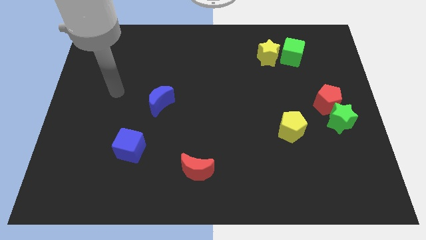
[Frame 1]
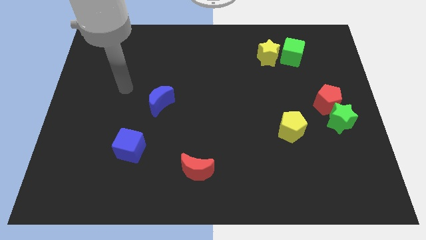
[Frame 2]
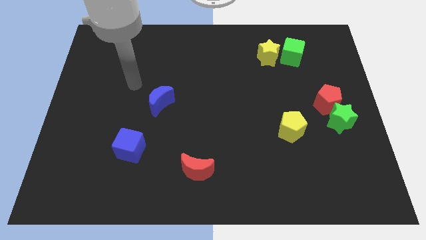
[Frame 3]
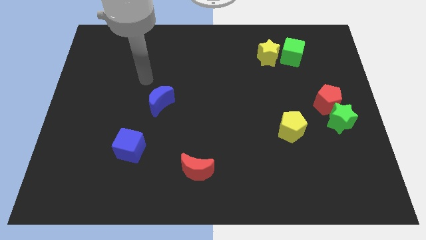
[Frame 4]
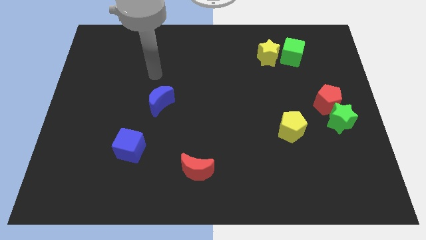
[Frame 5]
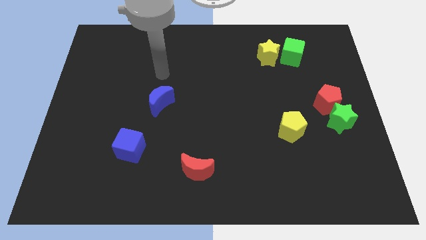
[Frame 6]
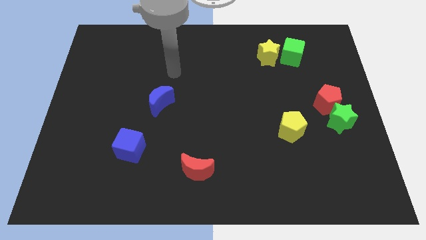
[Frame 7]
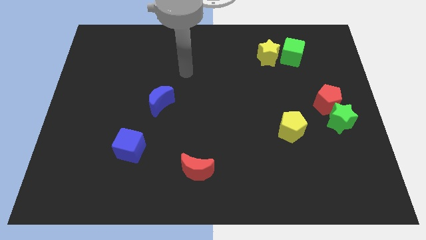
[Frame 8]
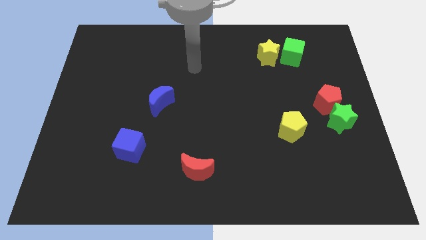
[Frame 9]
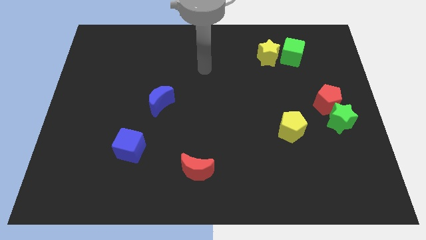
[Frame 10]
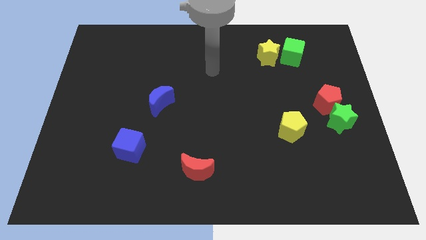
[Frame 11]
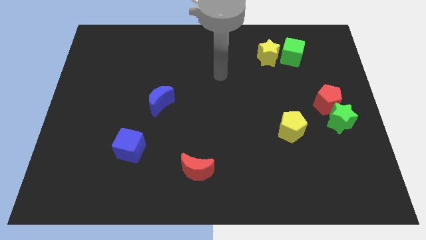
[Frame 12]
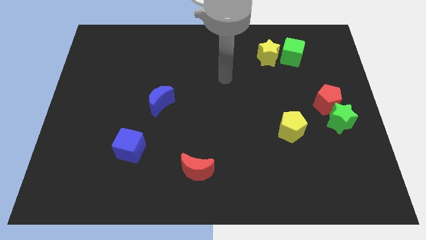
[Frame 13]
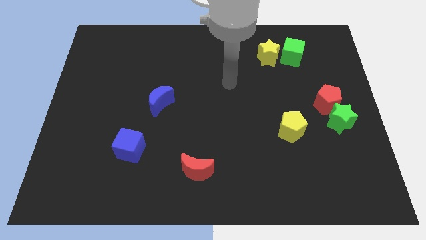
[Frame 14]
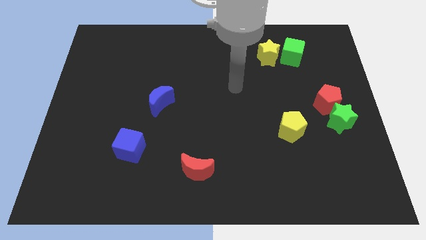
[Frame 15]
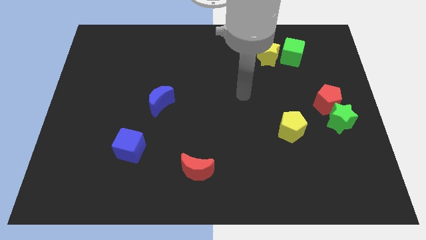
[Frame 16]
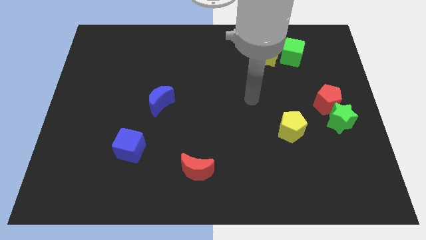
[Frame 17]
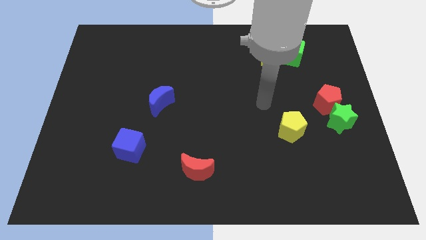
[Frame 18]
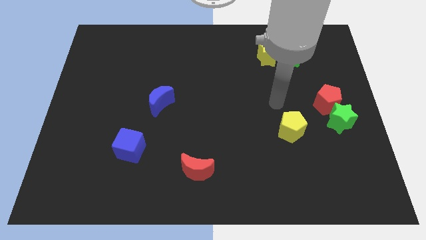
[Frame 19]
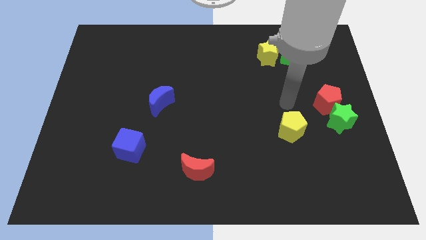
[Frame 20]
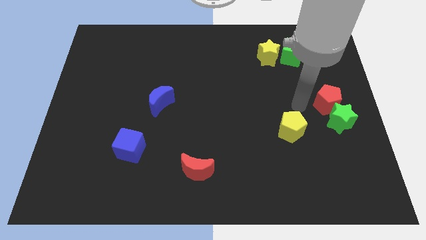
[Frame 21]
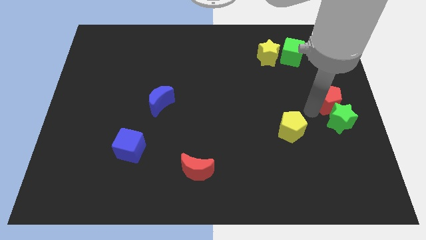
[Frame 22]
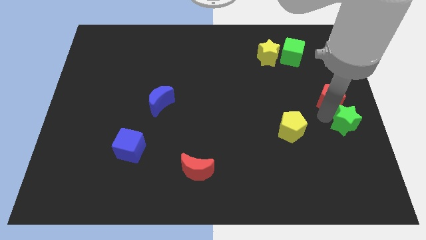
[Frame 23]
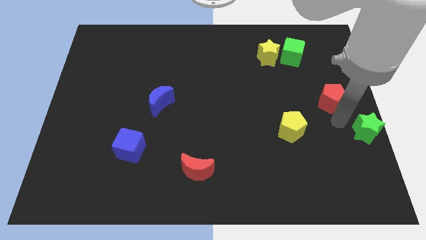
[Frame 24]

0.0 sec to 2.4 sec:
pull the red pentagon apart from the green star

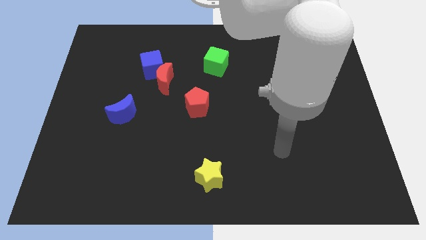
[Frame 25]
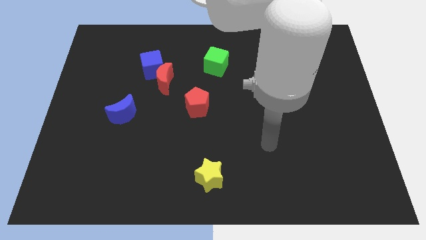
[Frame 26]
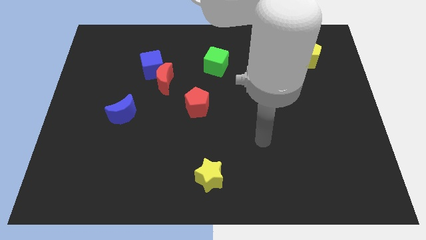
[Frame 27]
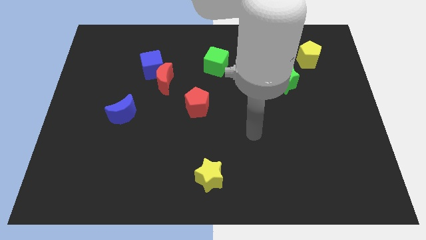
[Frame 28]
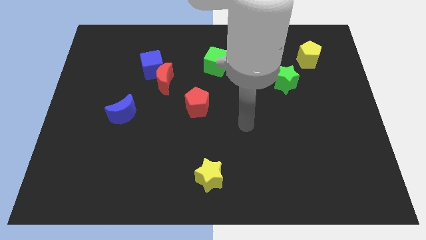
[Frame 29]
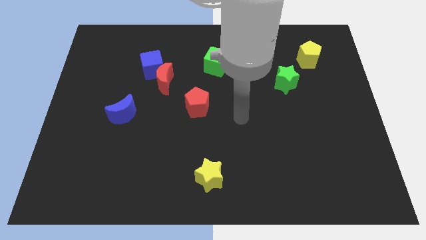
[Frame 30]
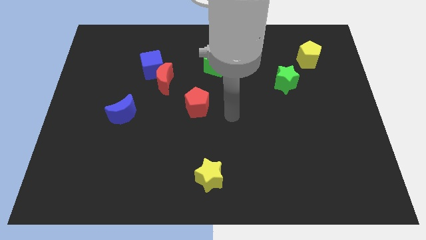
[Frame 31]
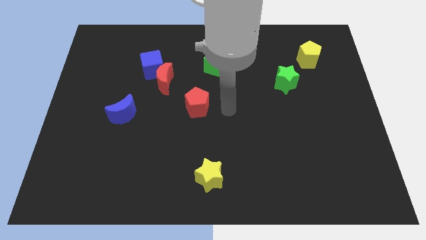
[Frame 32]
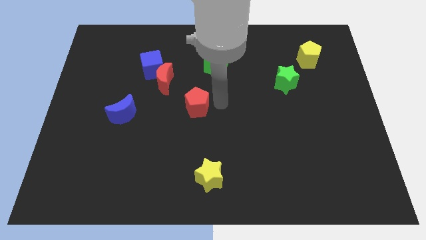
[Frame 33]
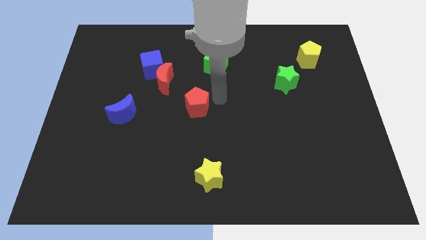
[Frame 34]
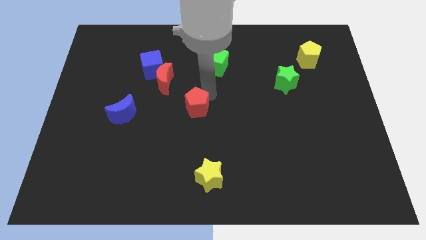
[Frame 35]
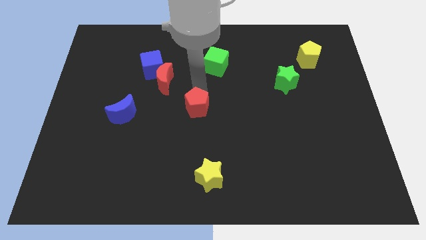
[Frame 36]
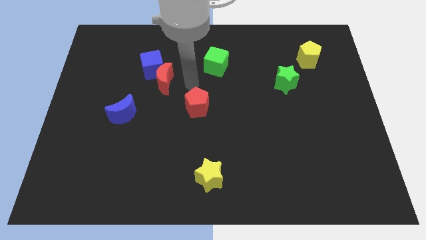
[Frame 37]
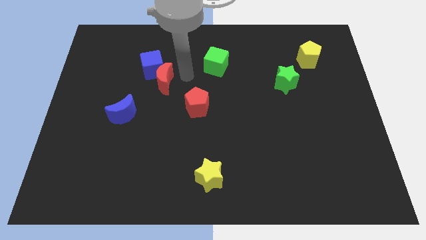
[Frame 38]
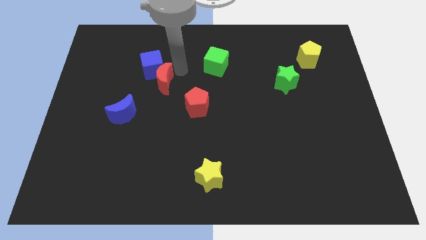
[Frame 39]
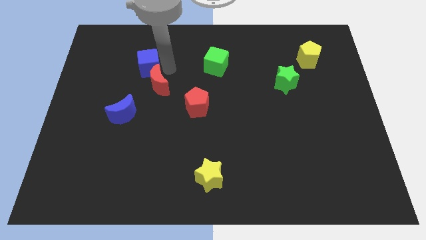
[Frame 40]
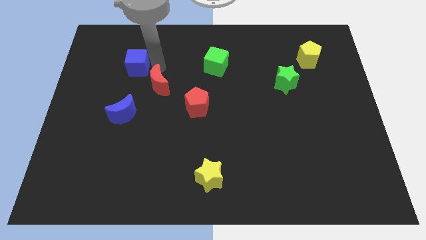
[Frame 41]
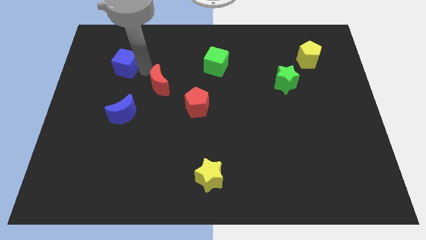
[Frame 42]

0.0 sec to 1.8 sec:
move the red moon away from the blue cube

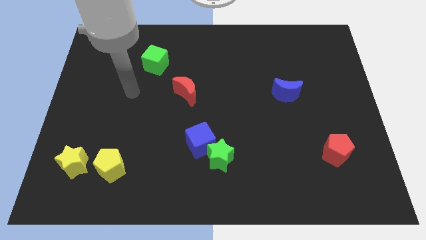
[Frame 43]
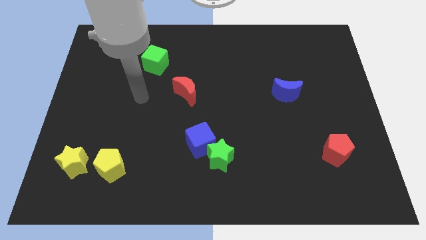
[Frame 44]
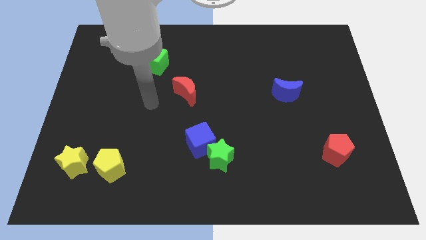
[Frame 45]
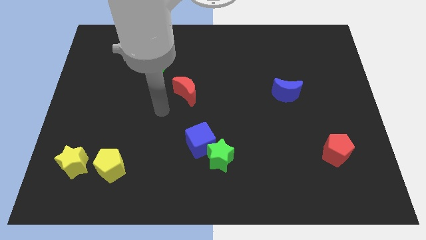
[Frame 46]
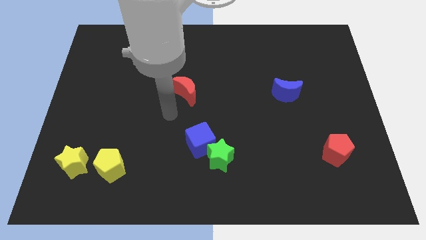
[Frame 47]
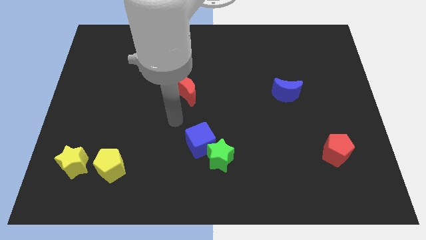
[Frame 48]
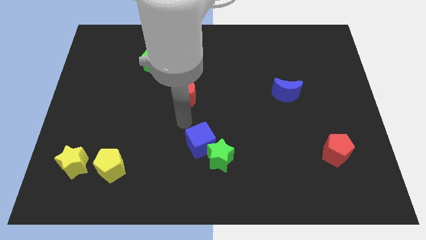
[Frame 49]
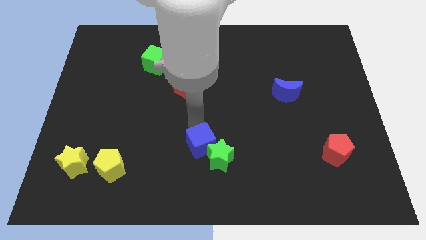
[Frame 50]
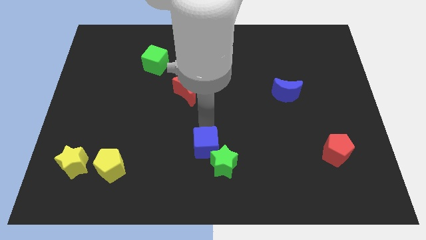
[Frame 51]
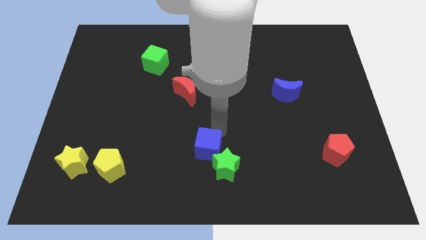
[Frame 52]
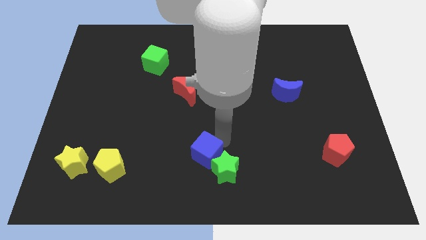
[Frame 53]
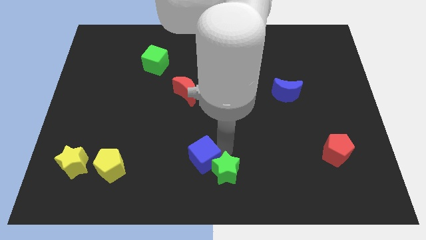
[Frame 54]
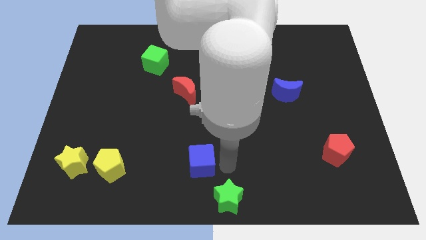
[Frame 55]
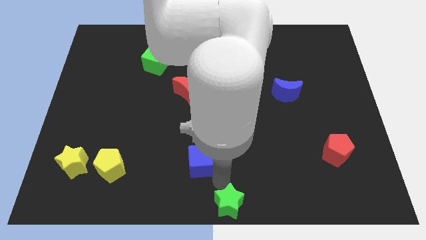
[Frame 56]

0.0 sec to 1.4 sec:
separate the blue cube from the green star

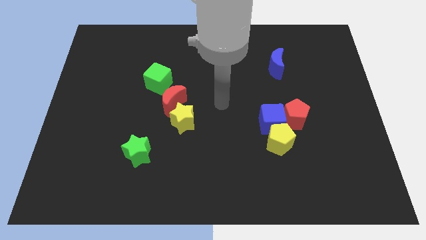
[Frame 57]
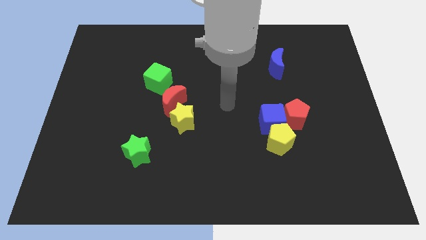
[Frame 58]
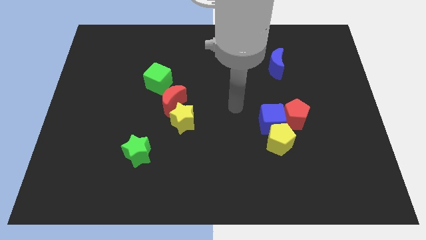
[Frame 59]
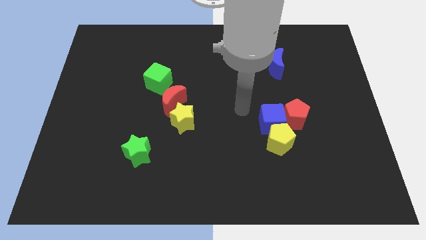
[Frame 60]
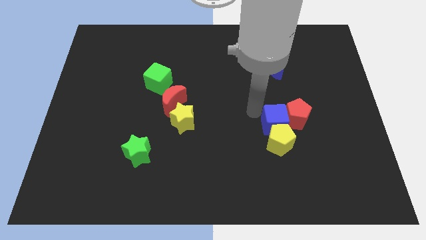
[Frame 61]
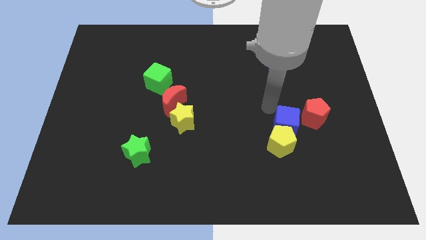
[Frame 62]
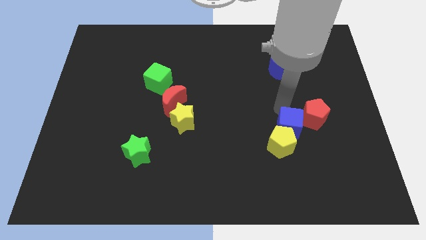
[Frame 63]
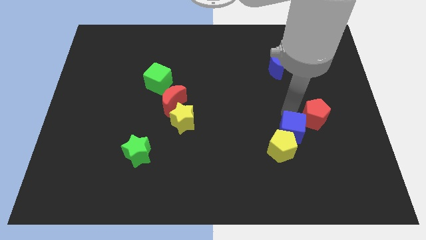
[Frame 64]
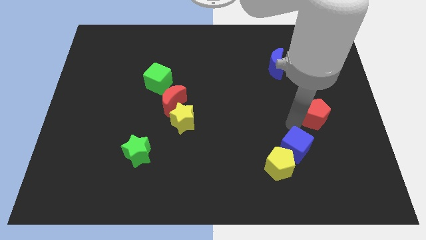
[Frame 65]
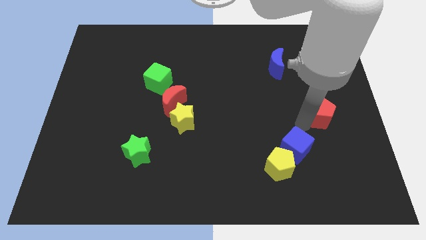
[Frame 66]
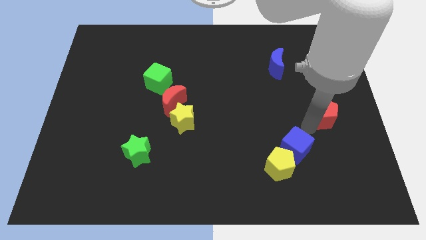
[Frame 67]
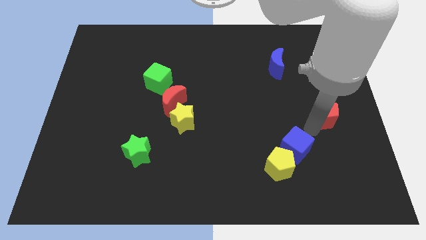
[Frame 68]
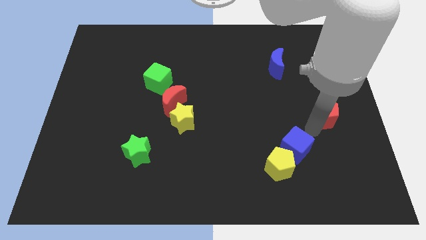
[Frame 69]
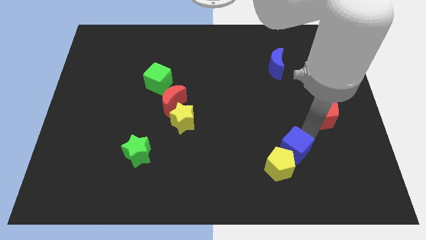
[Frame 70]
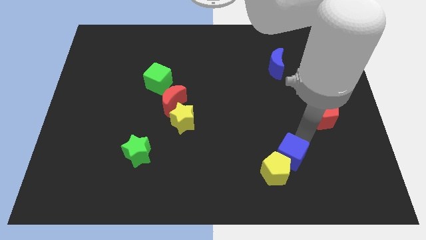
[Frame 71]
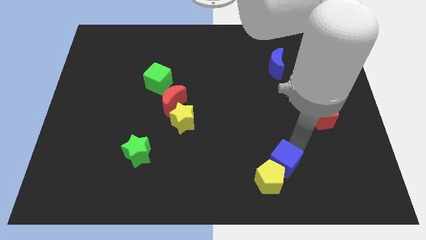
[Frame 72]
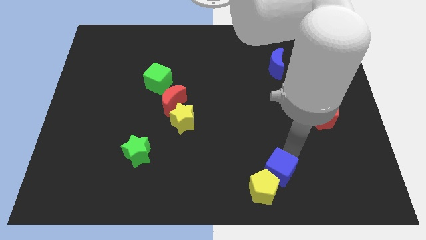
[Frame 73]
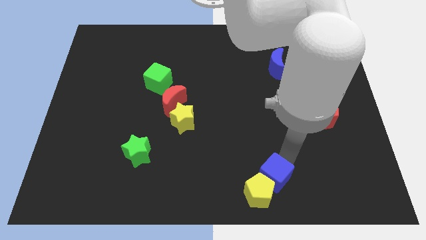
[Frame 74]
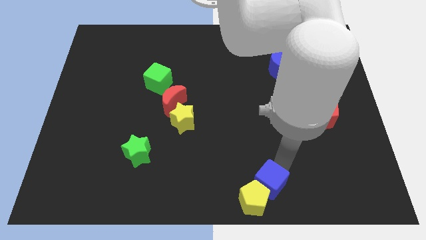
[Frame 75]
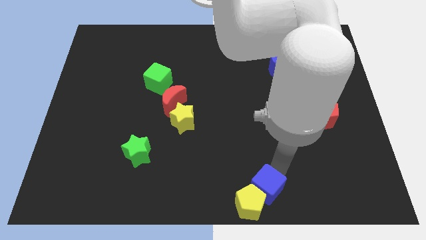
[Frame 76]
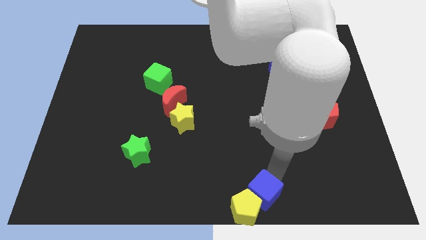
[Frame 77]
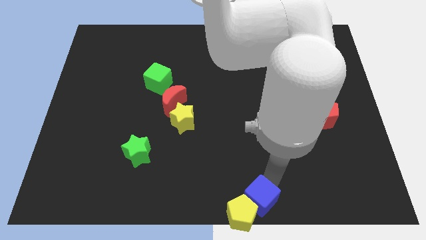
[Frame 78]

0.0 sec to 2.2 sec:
separate the blue cube from the yellow pentagon and red pentagon

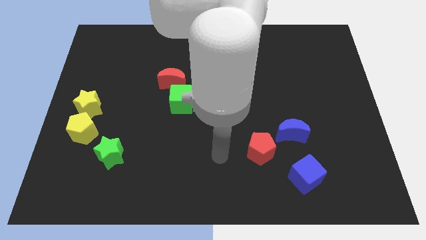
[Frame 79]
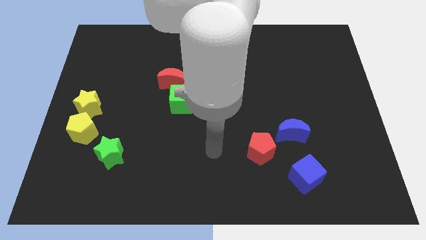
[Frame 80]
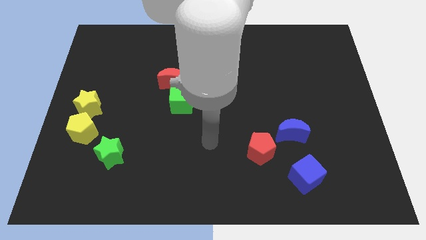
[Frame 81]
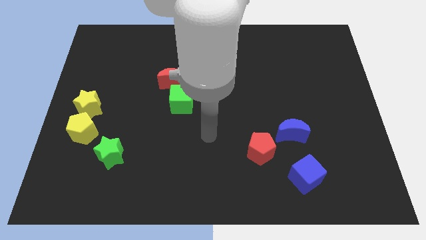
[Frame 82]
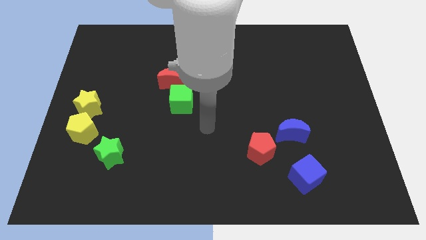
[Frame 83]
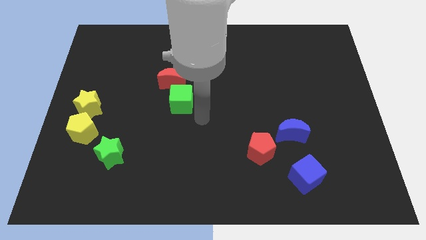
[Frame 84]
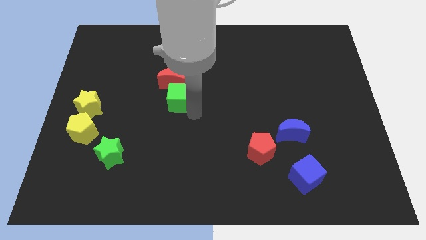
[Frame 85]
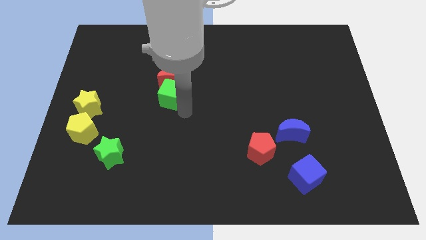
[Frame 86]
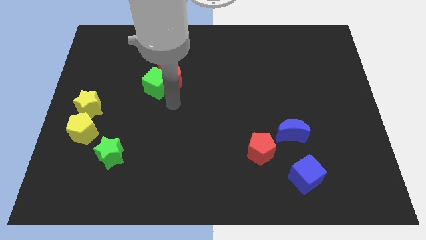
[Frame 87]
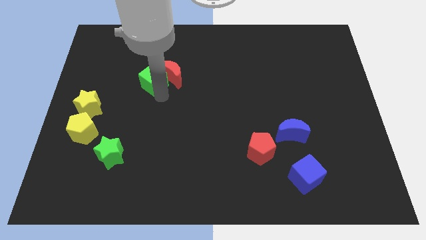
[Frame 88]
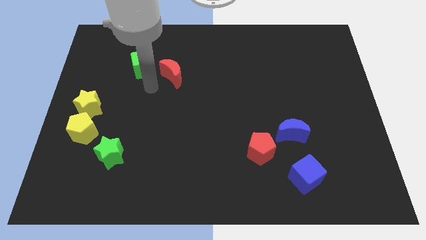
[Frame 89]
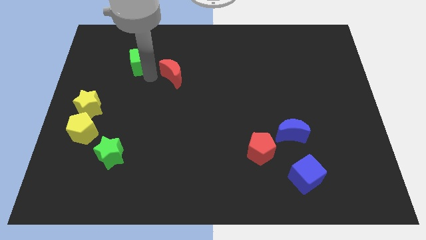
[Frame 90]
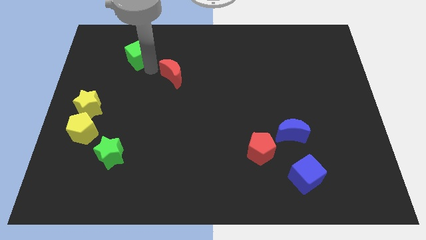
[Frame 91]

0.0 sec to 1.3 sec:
pull the red moon apart from the green cube

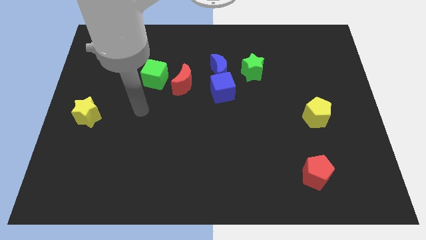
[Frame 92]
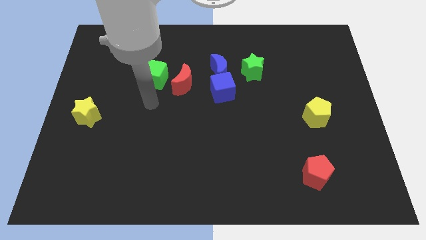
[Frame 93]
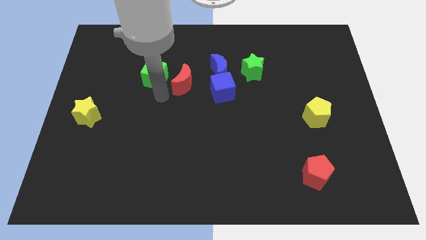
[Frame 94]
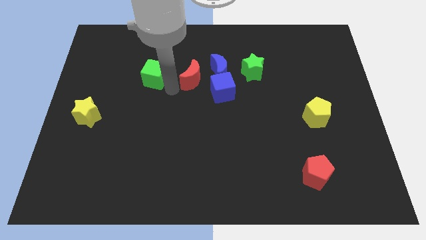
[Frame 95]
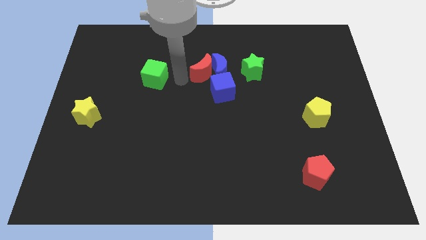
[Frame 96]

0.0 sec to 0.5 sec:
move the green cube away from the red moon
